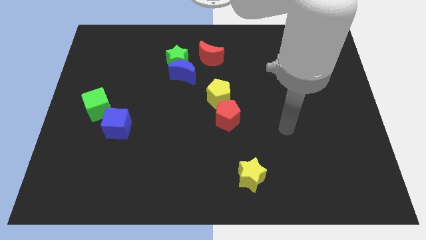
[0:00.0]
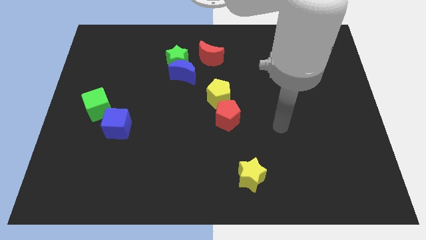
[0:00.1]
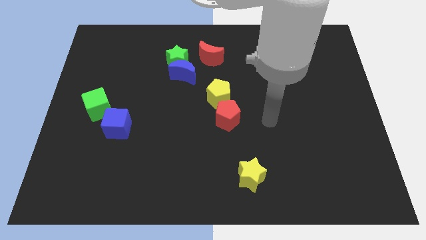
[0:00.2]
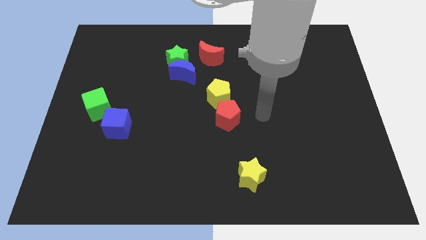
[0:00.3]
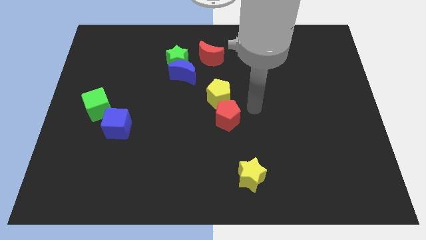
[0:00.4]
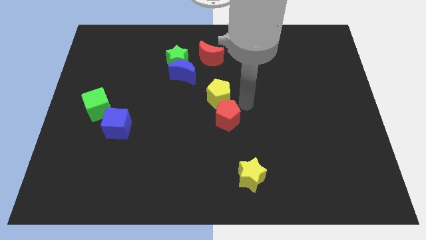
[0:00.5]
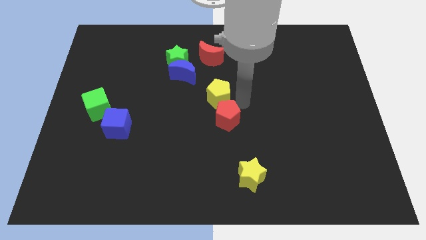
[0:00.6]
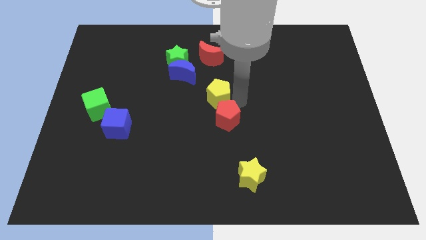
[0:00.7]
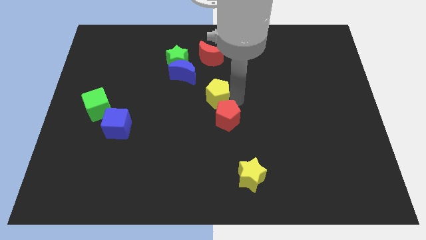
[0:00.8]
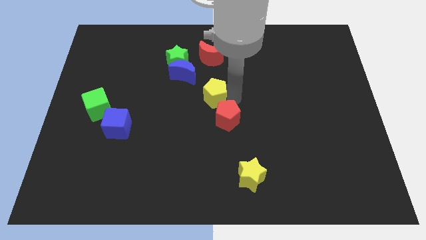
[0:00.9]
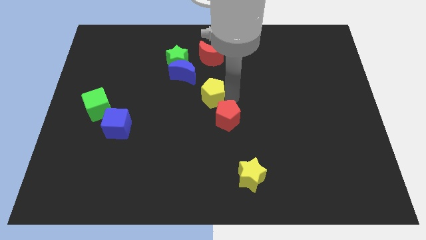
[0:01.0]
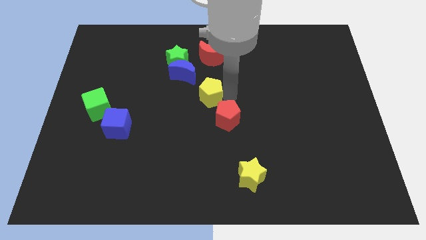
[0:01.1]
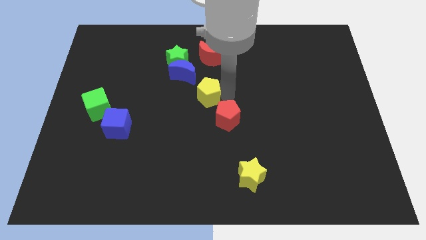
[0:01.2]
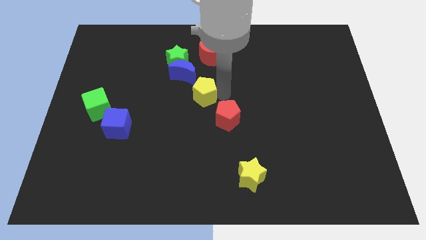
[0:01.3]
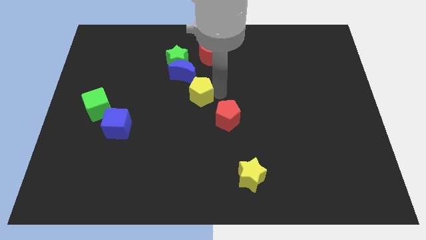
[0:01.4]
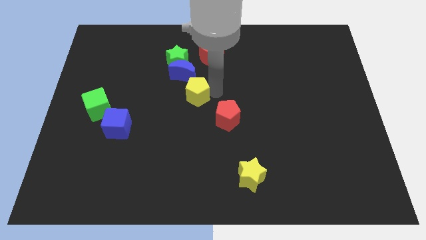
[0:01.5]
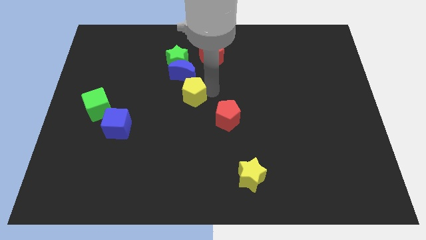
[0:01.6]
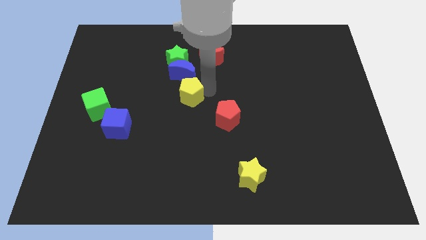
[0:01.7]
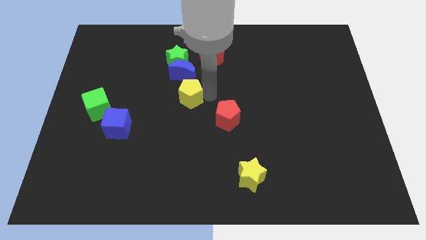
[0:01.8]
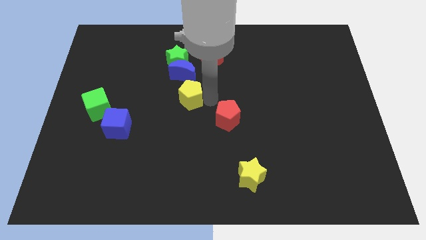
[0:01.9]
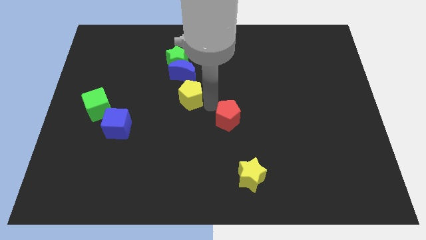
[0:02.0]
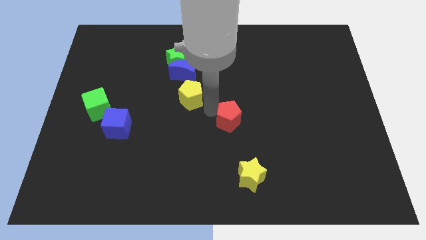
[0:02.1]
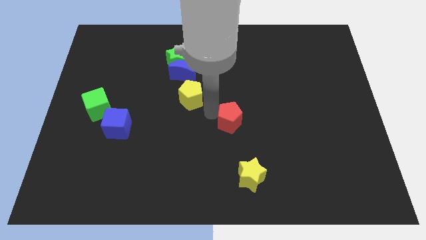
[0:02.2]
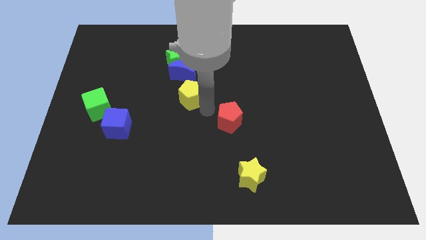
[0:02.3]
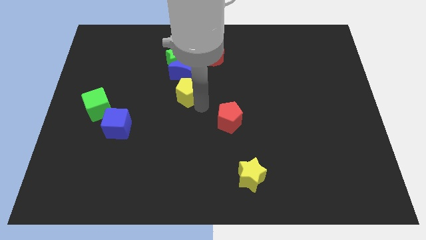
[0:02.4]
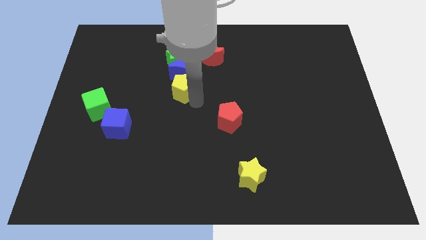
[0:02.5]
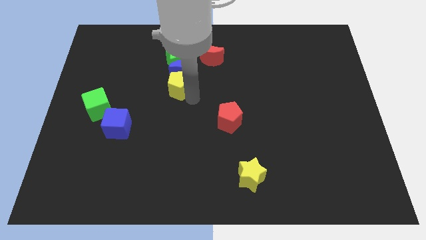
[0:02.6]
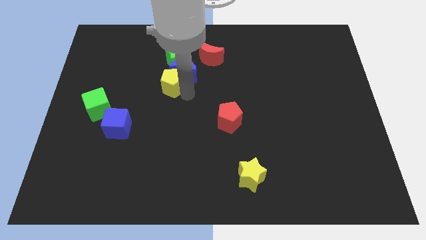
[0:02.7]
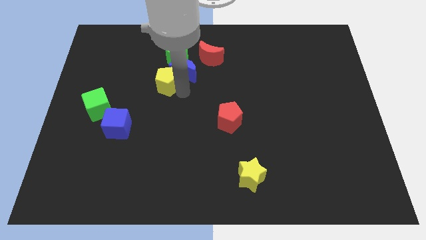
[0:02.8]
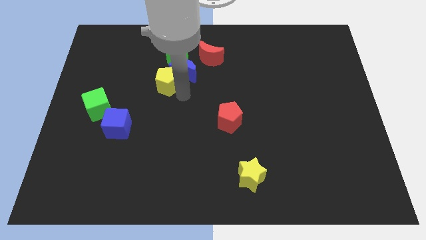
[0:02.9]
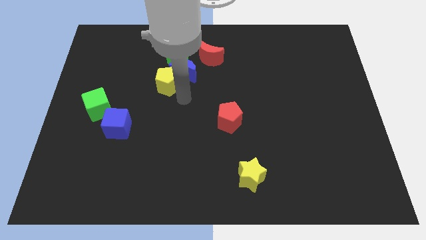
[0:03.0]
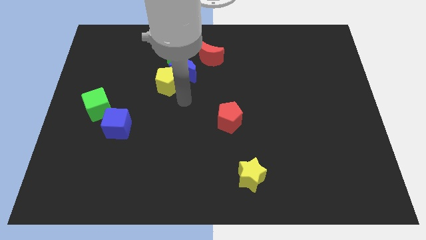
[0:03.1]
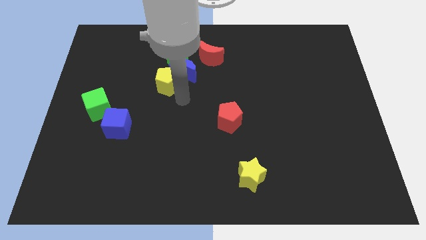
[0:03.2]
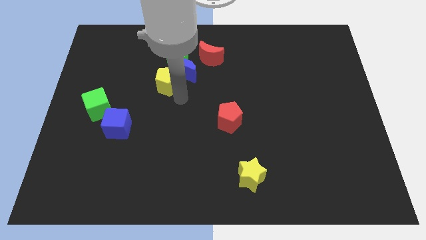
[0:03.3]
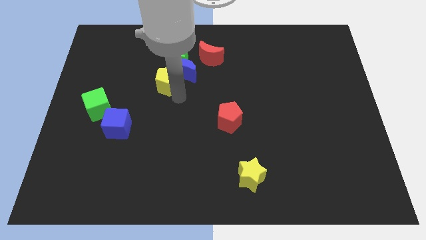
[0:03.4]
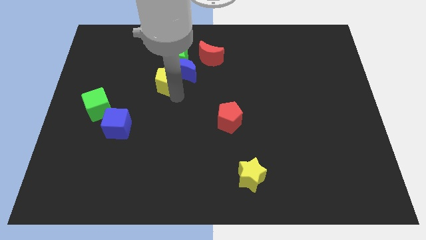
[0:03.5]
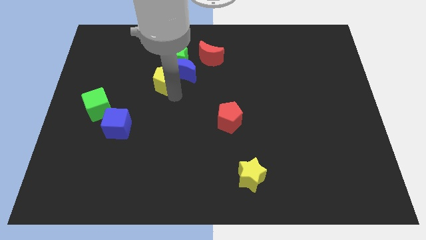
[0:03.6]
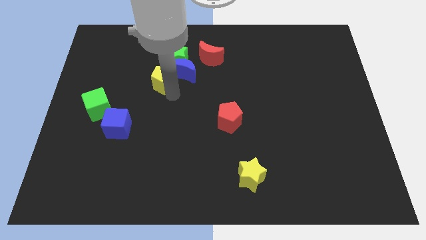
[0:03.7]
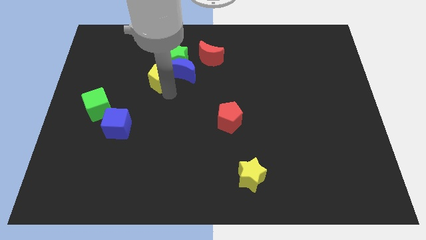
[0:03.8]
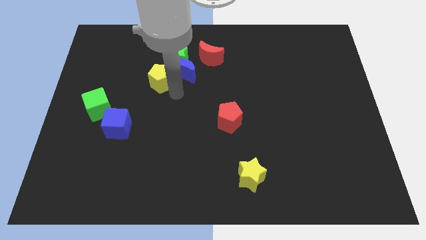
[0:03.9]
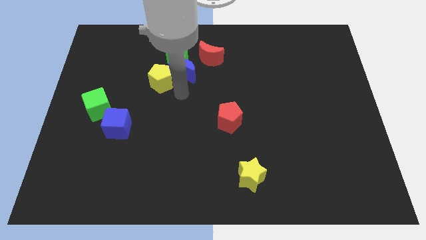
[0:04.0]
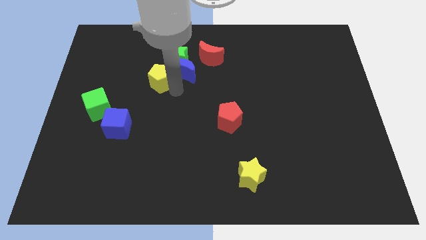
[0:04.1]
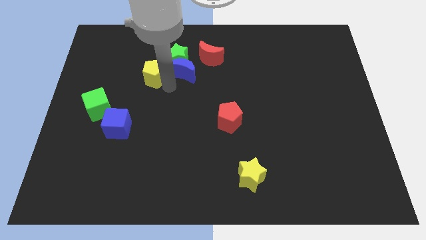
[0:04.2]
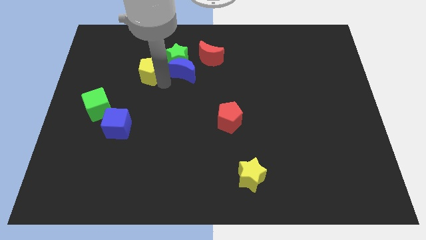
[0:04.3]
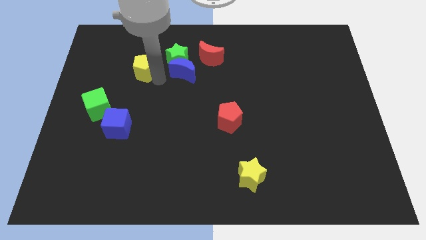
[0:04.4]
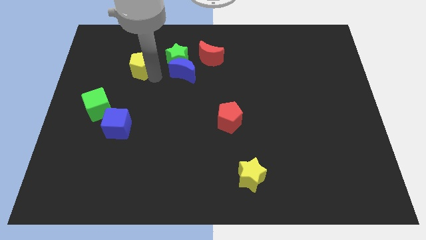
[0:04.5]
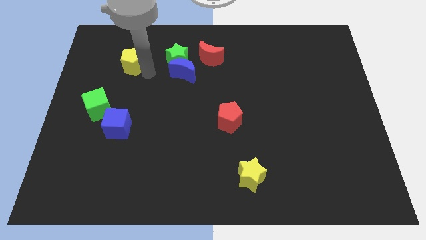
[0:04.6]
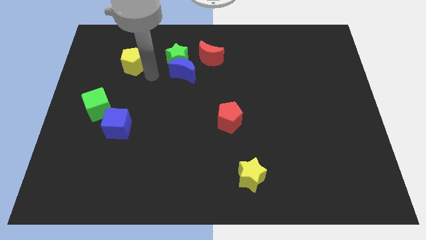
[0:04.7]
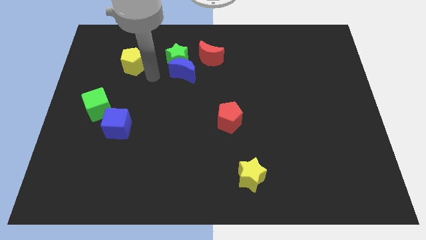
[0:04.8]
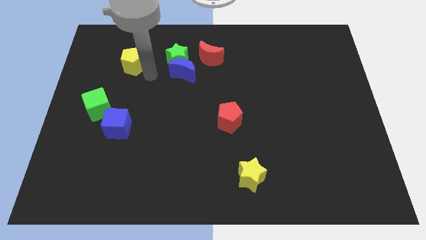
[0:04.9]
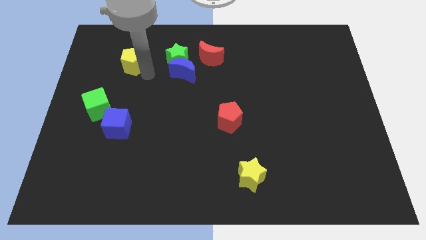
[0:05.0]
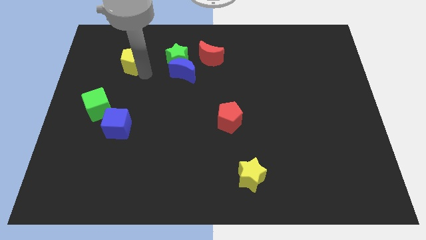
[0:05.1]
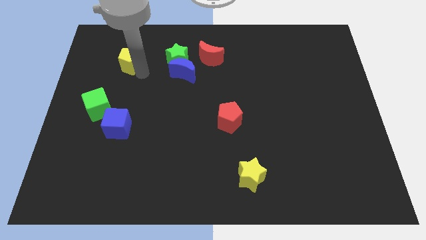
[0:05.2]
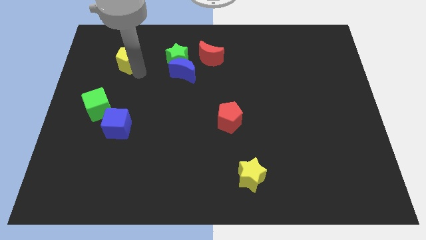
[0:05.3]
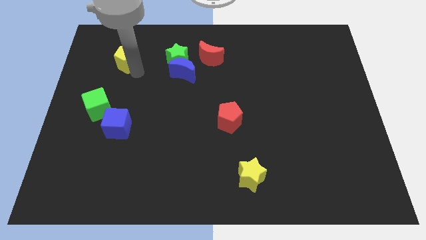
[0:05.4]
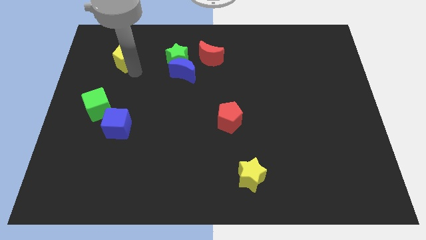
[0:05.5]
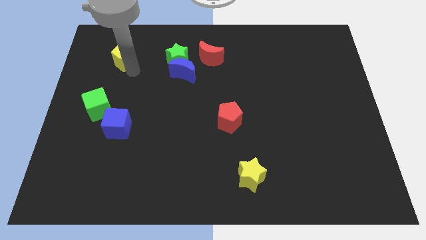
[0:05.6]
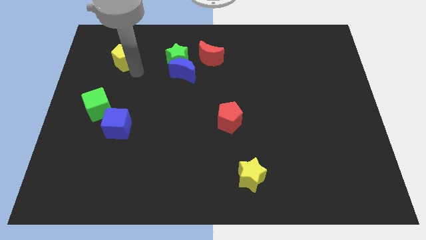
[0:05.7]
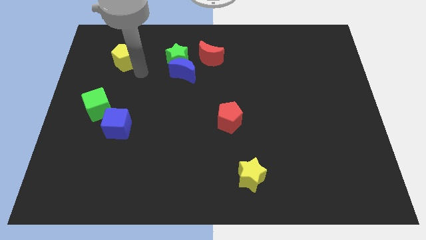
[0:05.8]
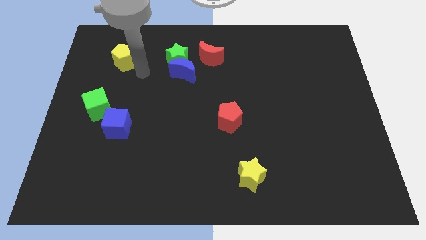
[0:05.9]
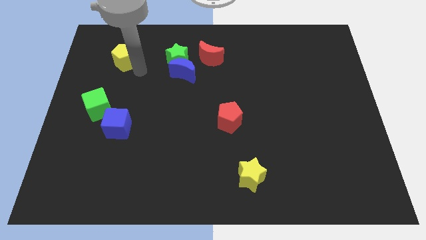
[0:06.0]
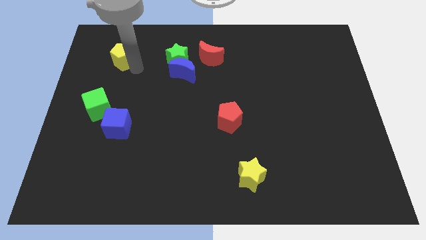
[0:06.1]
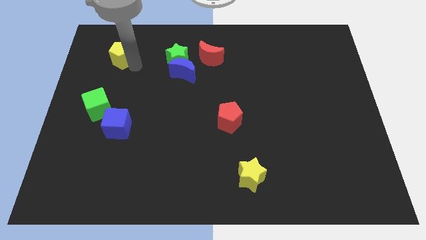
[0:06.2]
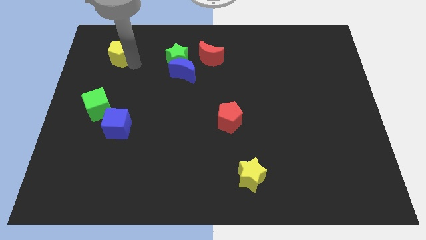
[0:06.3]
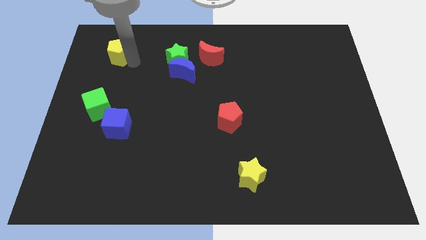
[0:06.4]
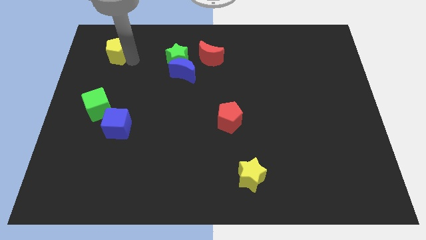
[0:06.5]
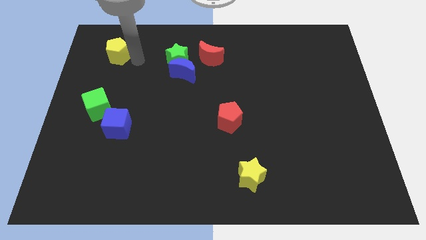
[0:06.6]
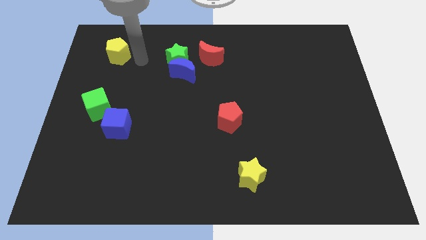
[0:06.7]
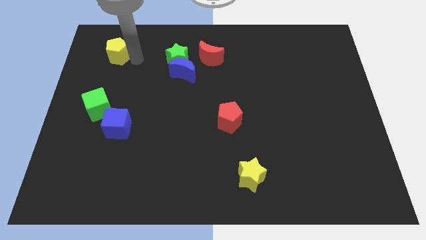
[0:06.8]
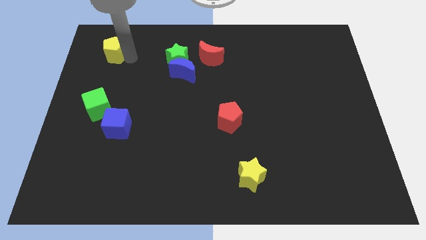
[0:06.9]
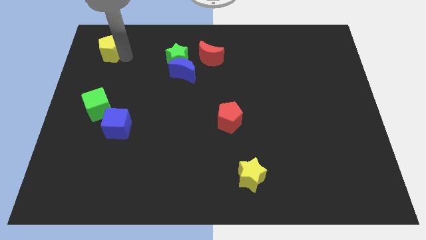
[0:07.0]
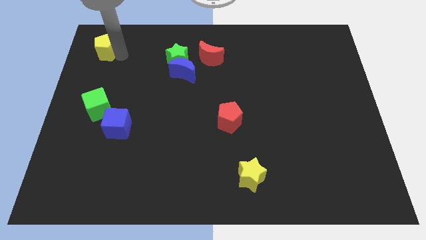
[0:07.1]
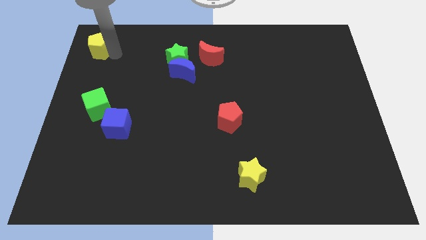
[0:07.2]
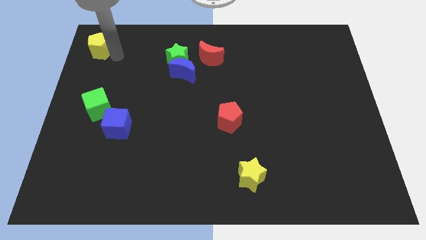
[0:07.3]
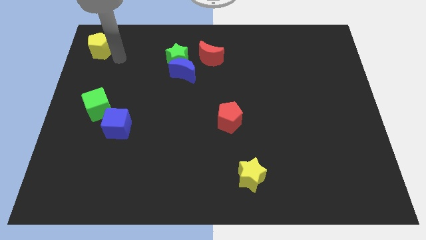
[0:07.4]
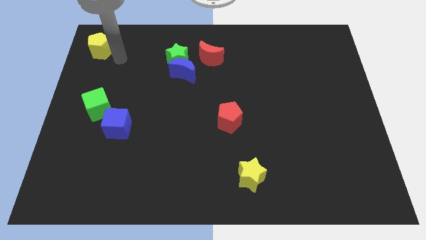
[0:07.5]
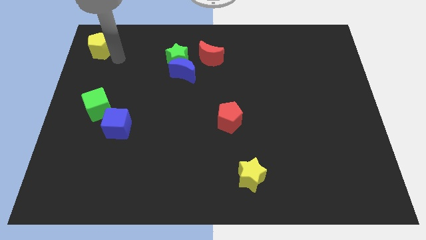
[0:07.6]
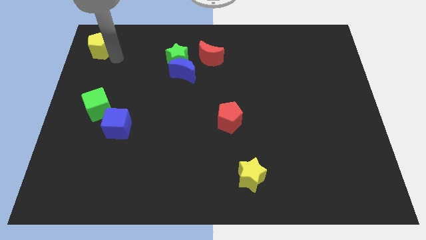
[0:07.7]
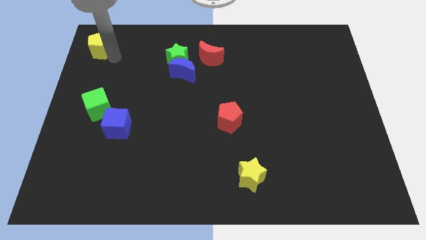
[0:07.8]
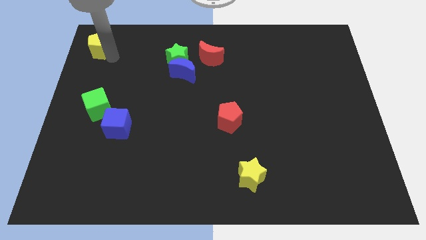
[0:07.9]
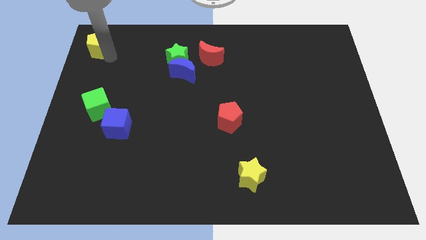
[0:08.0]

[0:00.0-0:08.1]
put the yellow pentagon to the upper left corner
